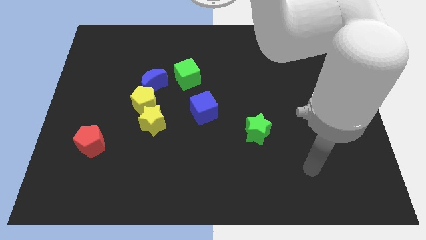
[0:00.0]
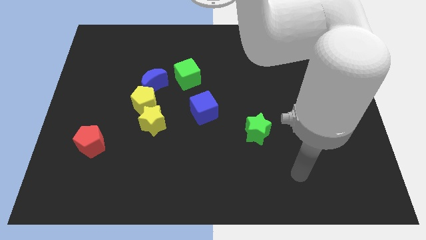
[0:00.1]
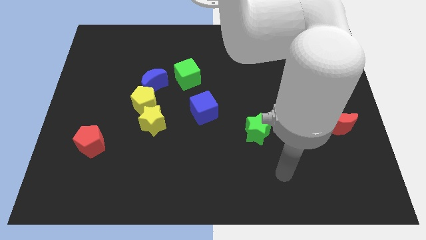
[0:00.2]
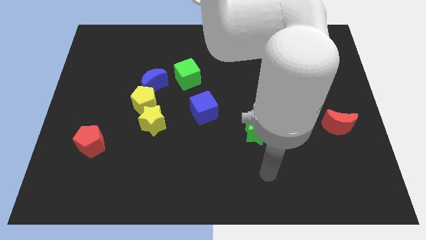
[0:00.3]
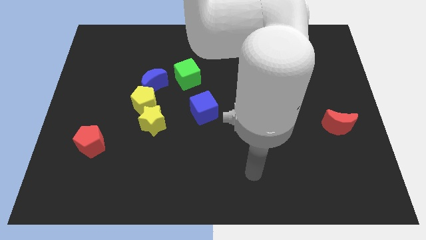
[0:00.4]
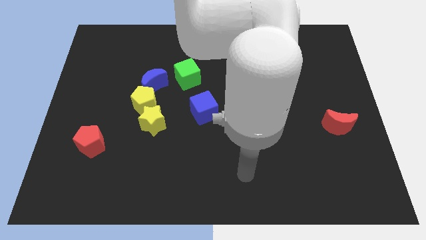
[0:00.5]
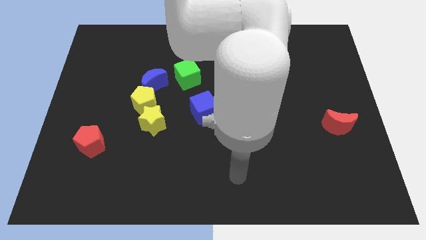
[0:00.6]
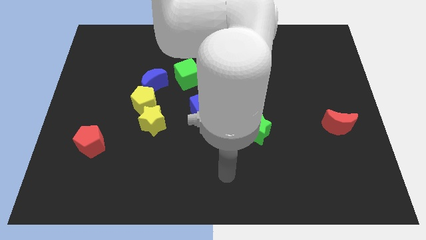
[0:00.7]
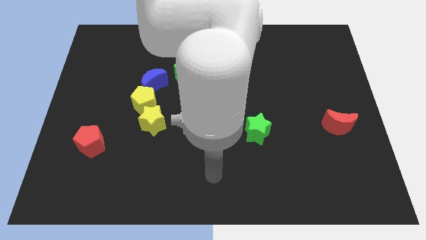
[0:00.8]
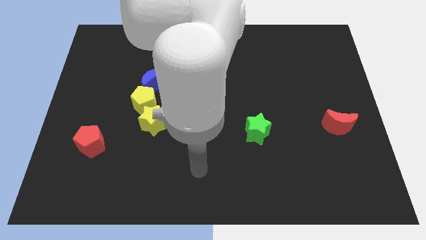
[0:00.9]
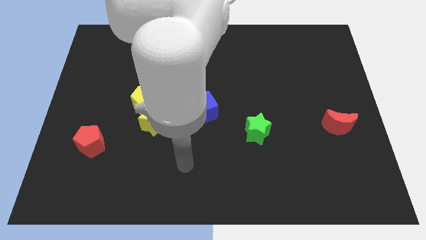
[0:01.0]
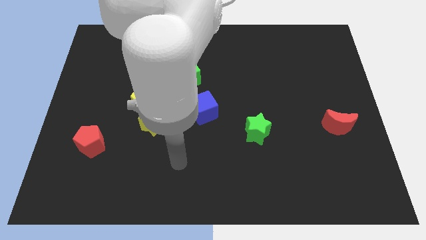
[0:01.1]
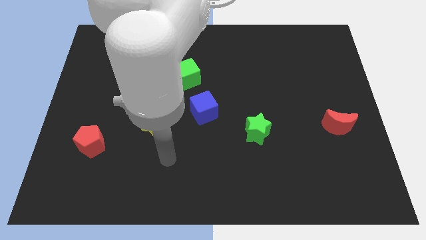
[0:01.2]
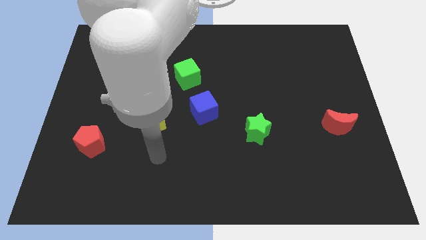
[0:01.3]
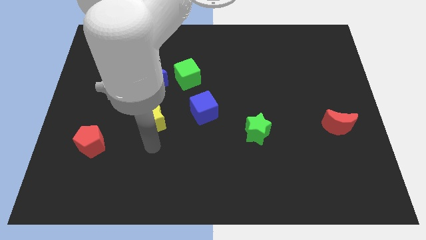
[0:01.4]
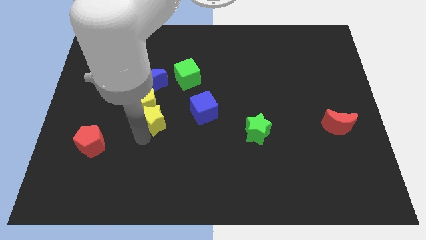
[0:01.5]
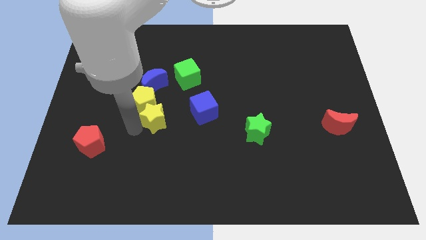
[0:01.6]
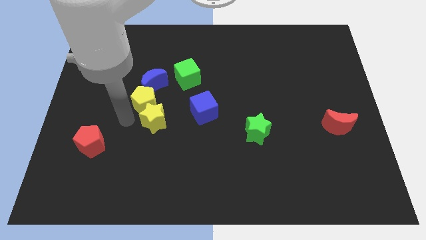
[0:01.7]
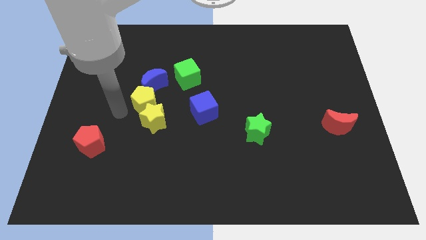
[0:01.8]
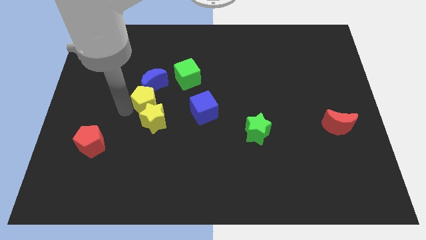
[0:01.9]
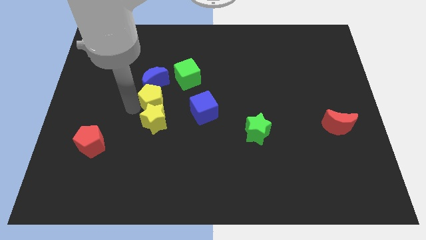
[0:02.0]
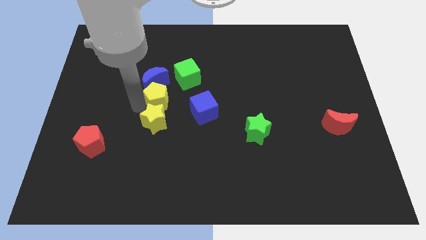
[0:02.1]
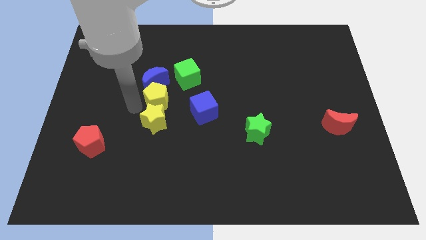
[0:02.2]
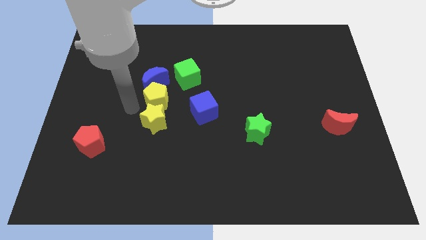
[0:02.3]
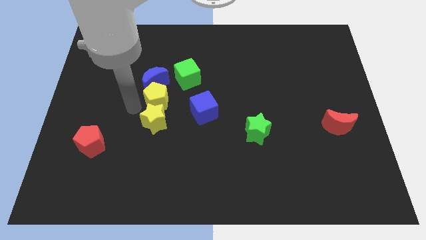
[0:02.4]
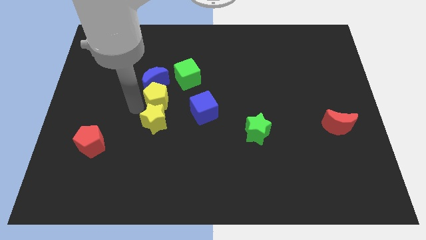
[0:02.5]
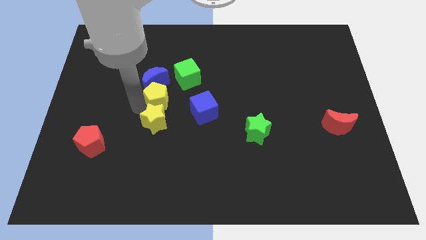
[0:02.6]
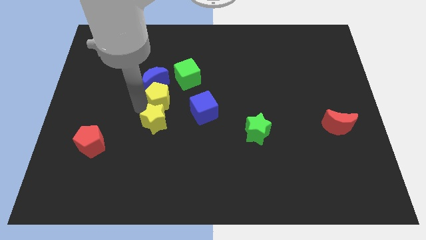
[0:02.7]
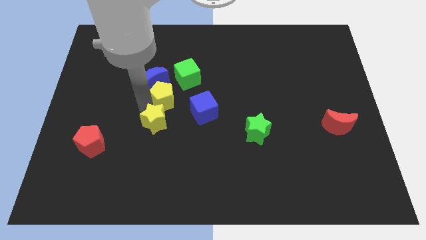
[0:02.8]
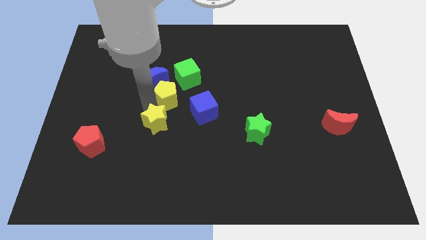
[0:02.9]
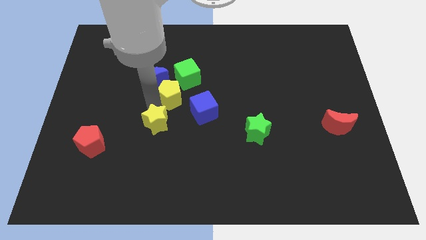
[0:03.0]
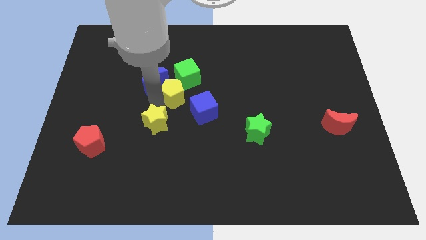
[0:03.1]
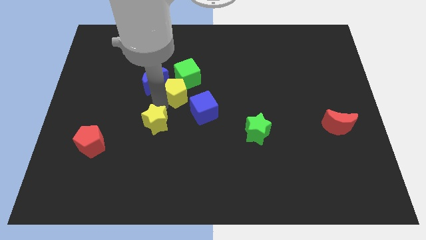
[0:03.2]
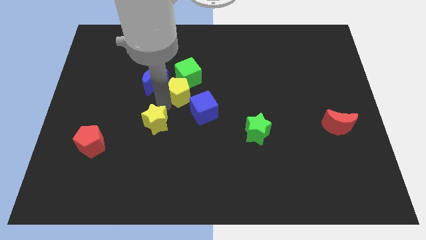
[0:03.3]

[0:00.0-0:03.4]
slightly slide the yellow pentagon up and to the right diagonally

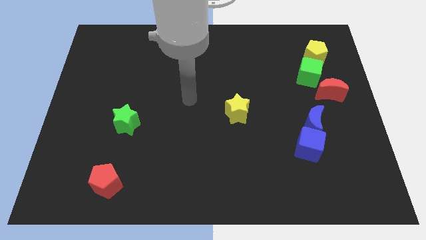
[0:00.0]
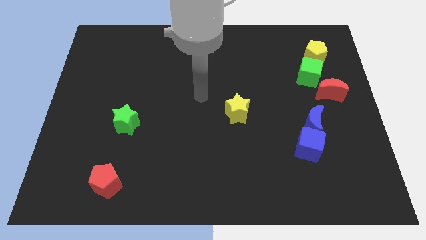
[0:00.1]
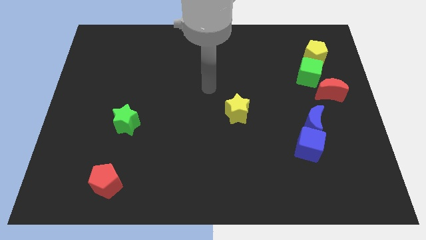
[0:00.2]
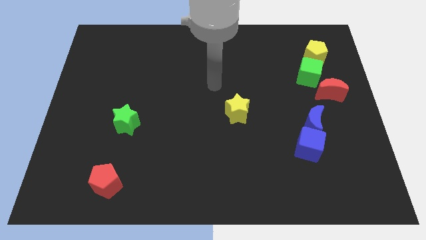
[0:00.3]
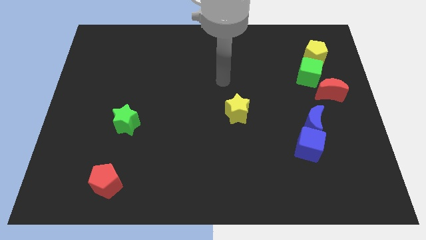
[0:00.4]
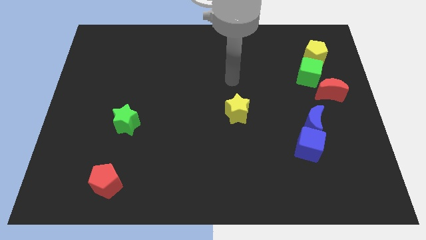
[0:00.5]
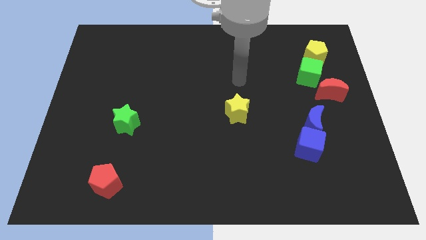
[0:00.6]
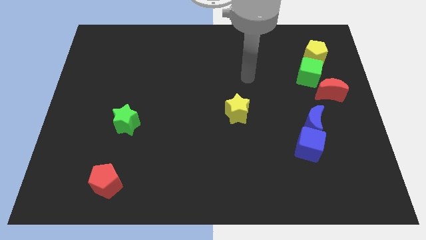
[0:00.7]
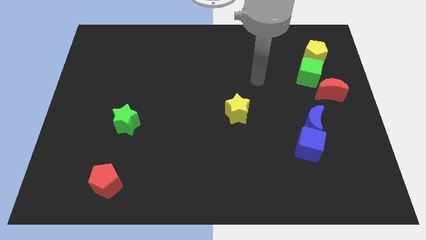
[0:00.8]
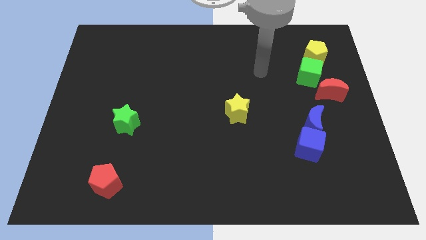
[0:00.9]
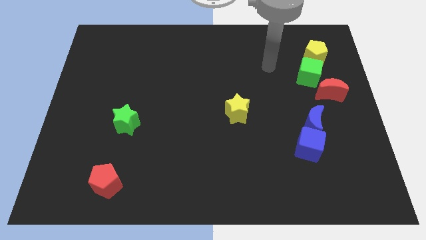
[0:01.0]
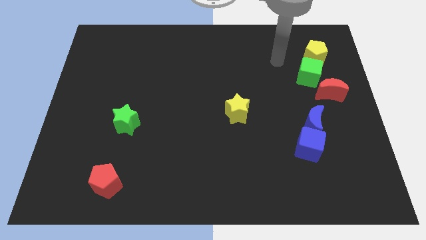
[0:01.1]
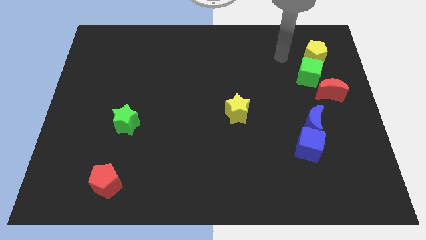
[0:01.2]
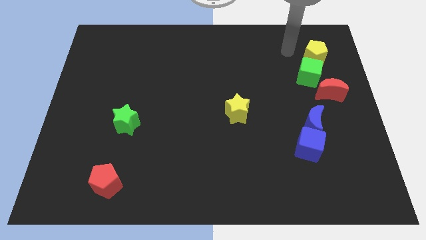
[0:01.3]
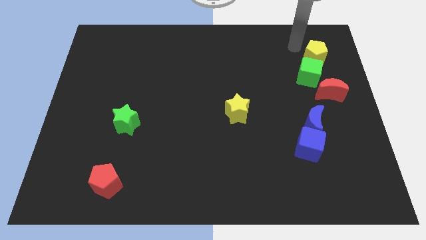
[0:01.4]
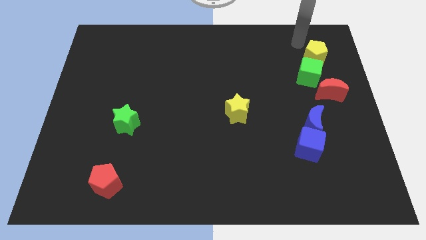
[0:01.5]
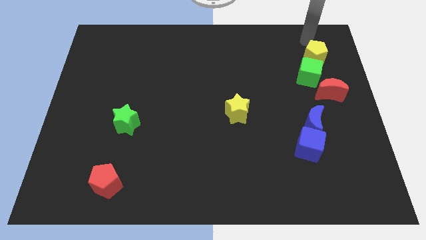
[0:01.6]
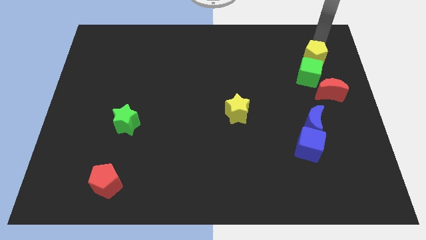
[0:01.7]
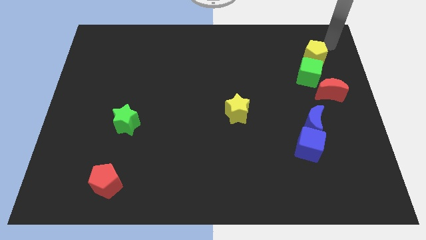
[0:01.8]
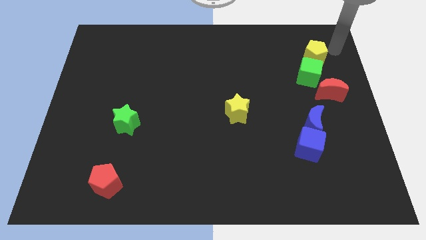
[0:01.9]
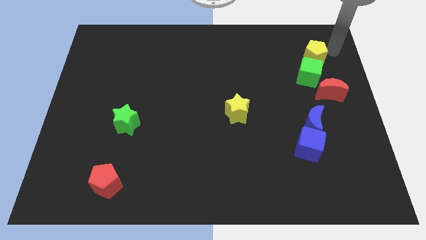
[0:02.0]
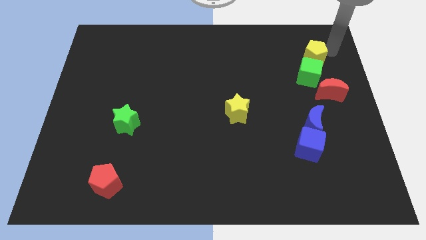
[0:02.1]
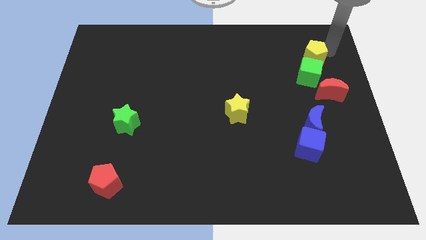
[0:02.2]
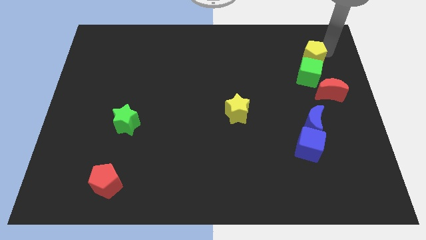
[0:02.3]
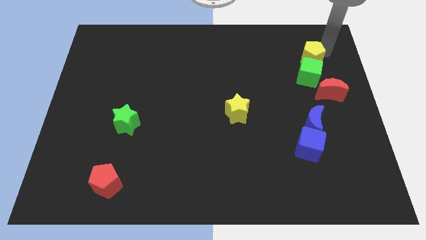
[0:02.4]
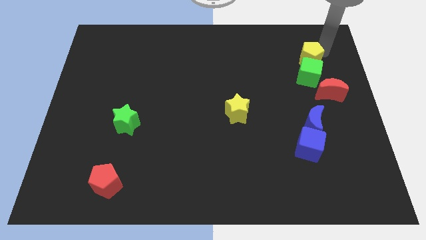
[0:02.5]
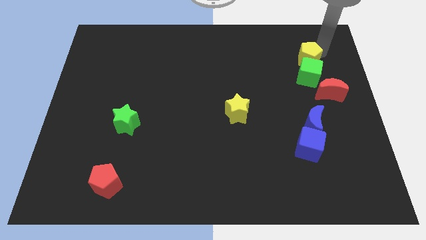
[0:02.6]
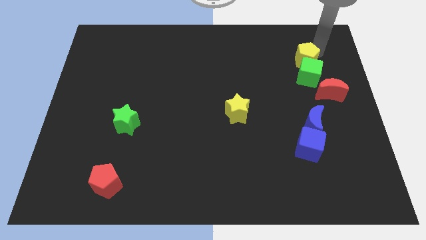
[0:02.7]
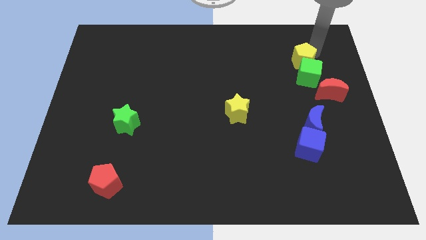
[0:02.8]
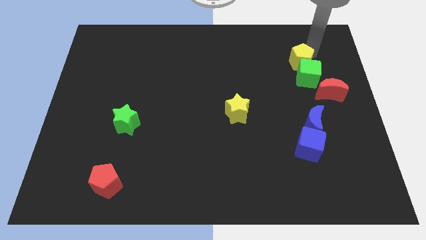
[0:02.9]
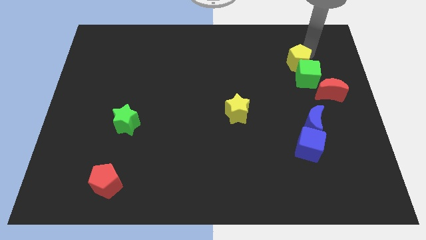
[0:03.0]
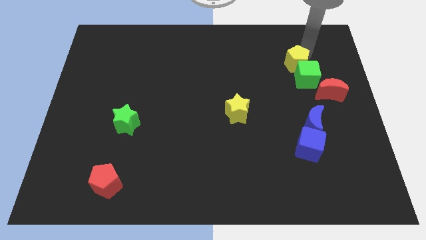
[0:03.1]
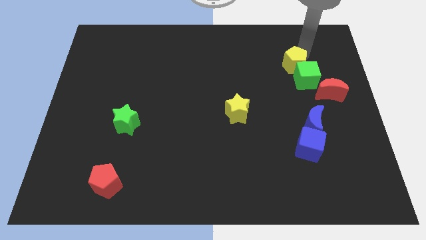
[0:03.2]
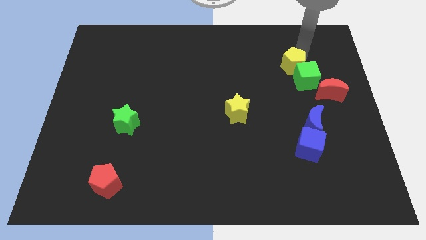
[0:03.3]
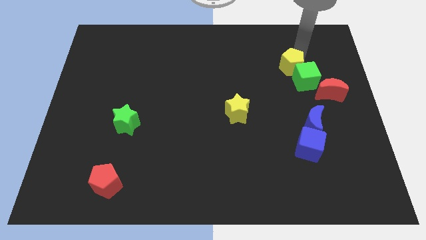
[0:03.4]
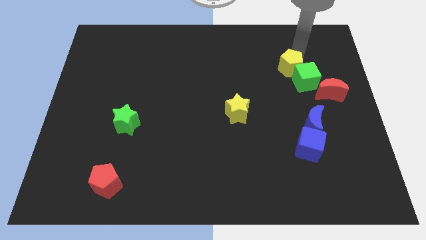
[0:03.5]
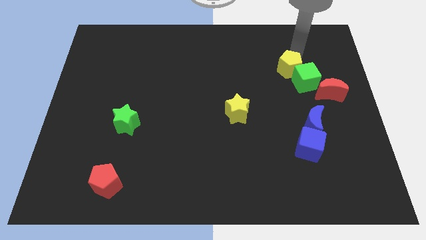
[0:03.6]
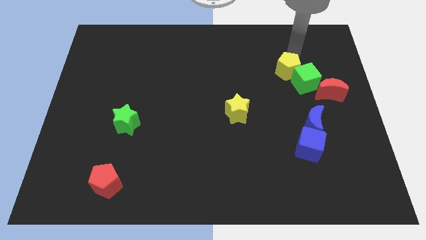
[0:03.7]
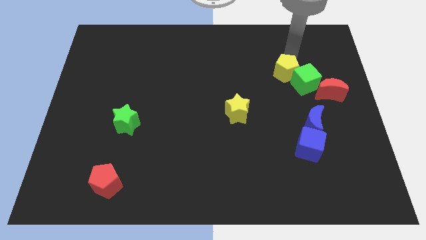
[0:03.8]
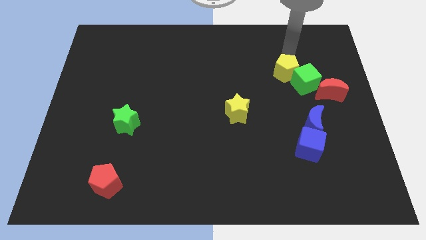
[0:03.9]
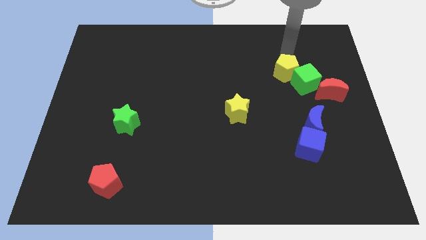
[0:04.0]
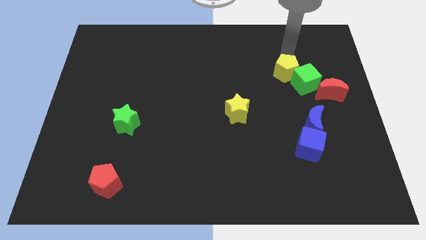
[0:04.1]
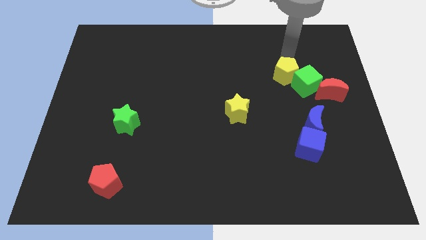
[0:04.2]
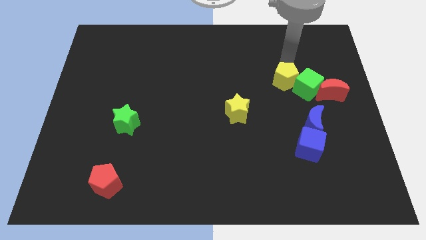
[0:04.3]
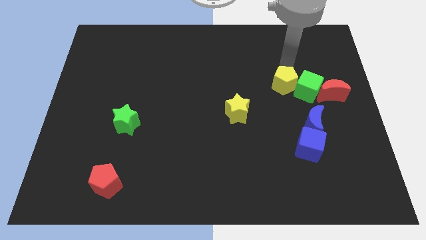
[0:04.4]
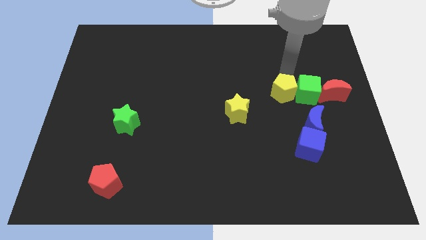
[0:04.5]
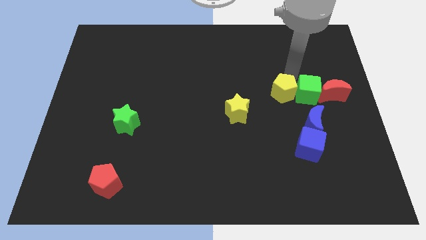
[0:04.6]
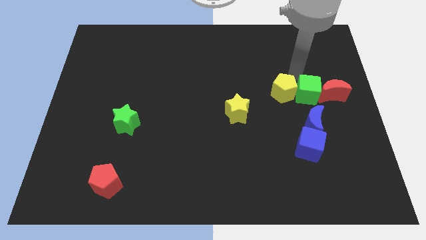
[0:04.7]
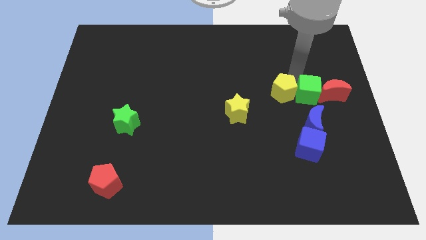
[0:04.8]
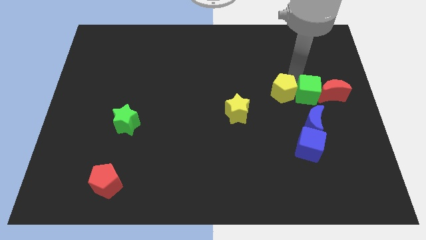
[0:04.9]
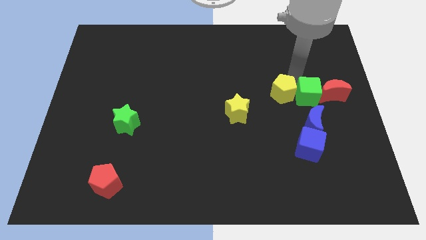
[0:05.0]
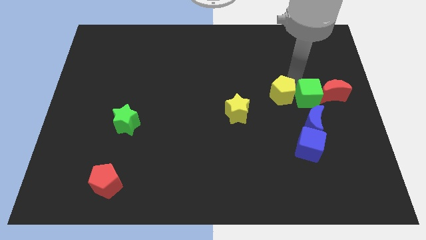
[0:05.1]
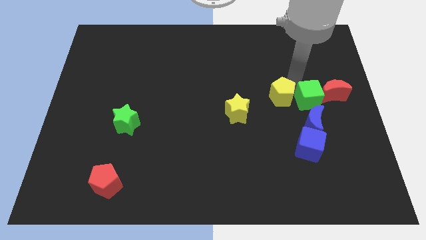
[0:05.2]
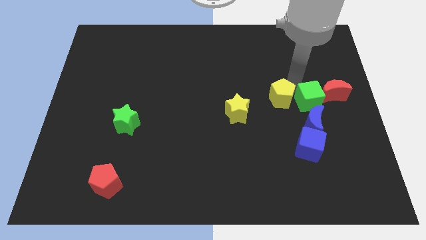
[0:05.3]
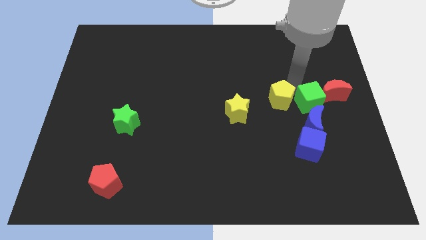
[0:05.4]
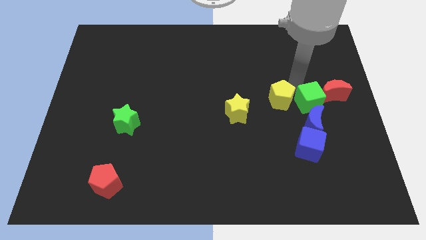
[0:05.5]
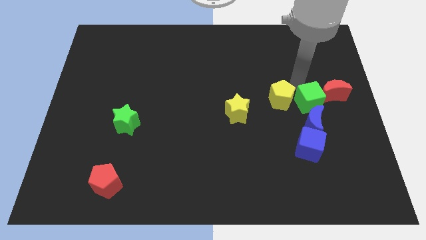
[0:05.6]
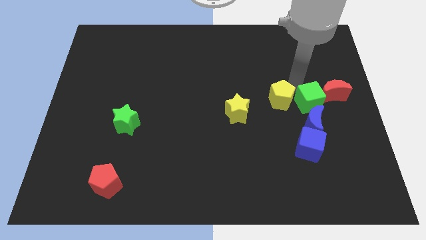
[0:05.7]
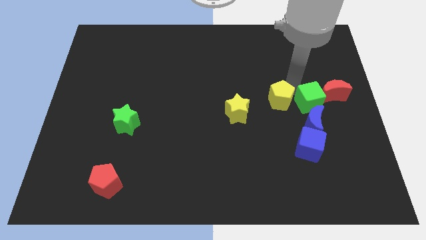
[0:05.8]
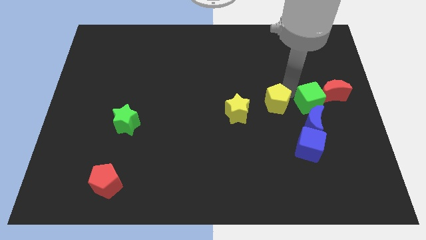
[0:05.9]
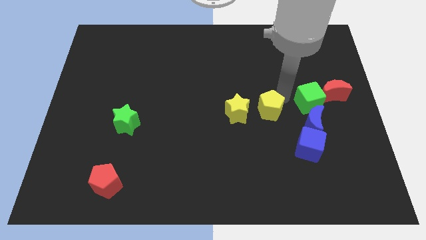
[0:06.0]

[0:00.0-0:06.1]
slide the yellow pentagon down and left diagonally
